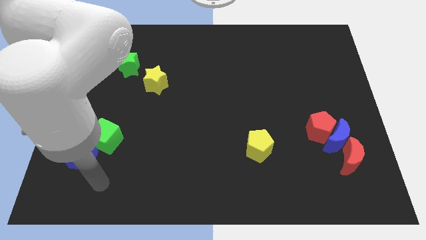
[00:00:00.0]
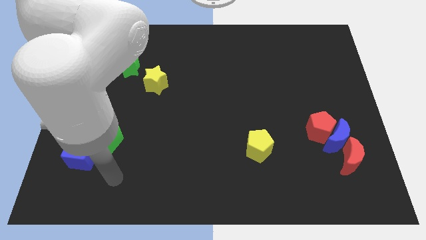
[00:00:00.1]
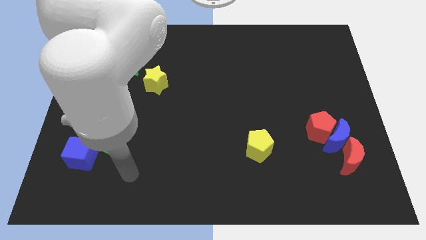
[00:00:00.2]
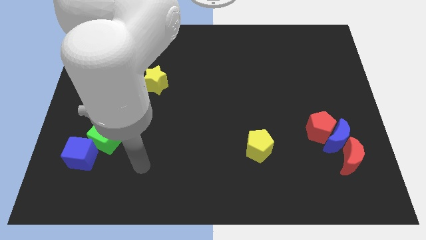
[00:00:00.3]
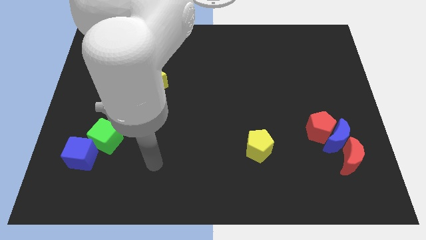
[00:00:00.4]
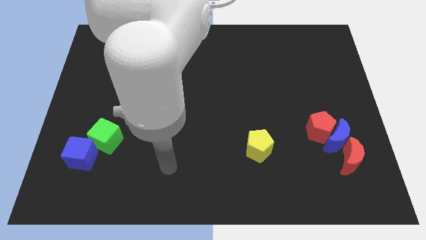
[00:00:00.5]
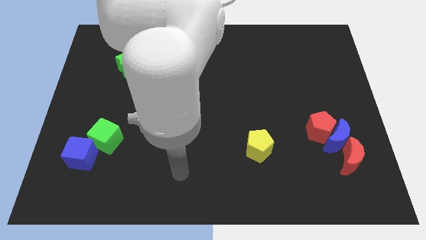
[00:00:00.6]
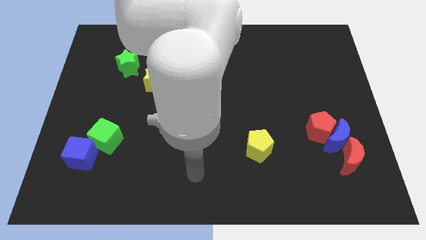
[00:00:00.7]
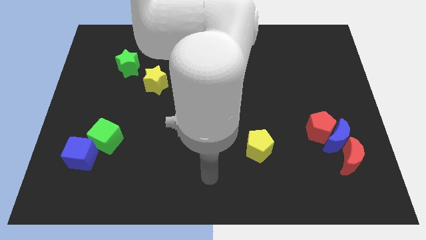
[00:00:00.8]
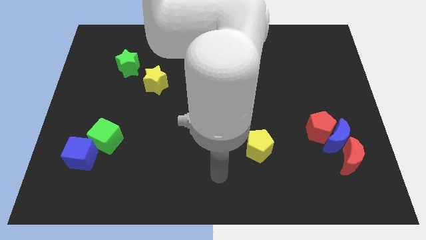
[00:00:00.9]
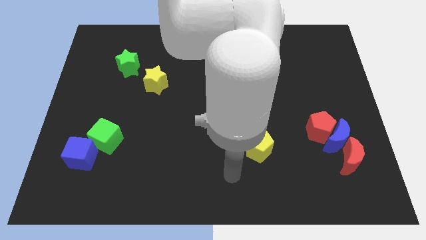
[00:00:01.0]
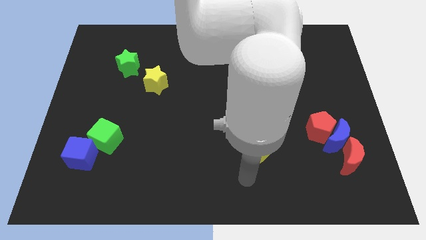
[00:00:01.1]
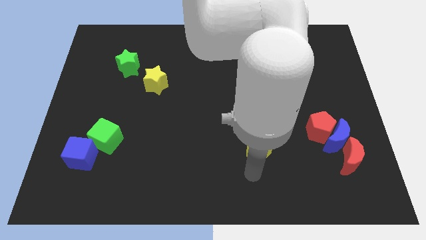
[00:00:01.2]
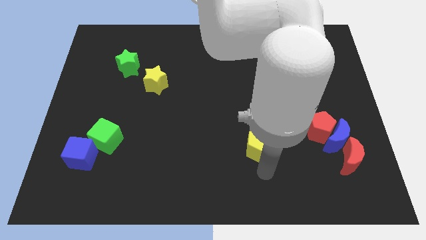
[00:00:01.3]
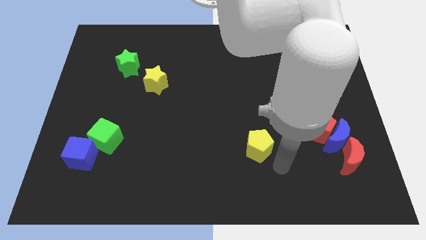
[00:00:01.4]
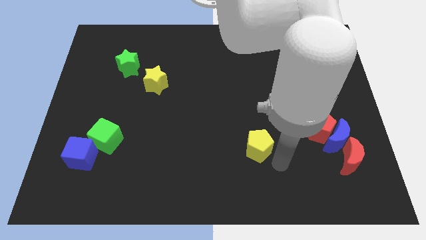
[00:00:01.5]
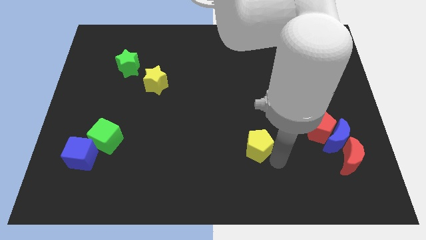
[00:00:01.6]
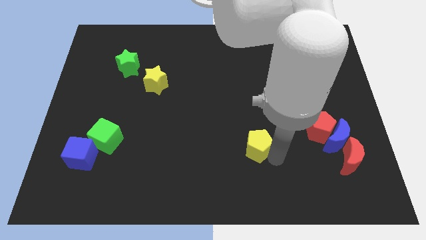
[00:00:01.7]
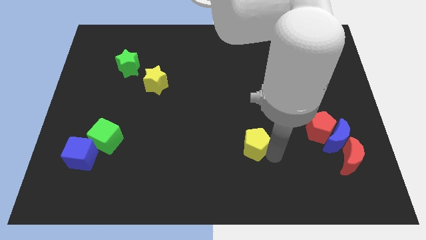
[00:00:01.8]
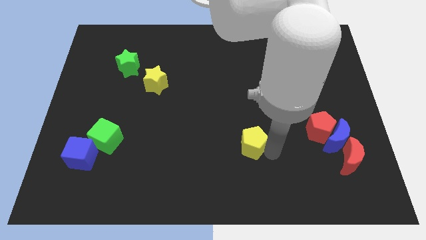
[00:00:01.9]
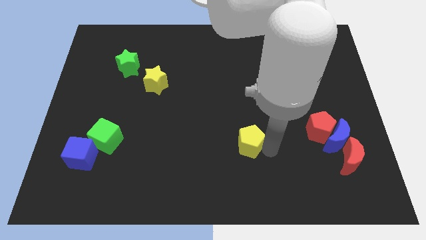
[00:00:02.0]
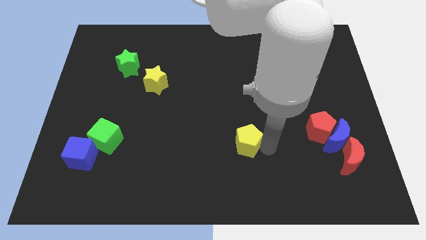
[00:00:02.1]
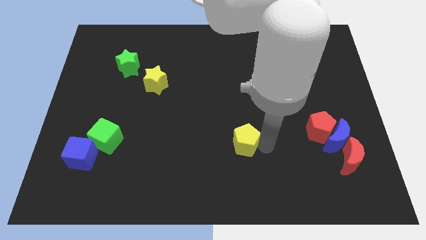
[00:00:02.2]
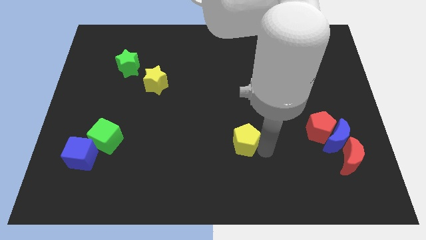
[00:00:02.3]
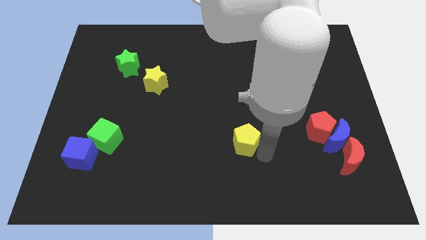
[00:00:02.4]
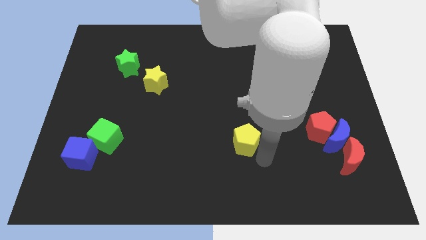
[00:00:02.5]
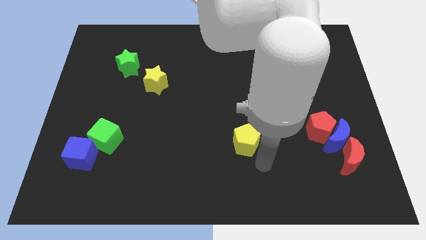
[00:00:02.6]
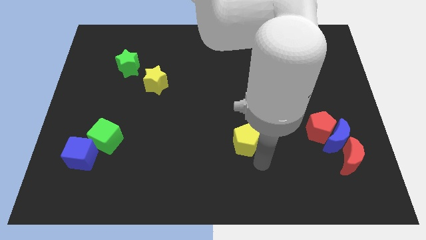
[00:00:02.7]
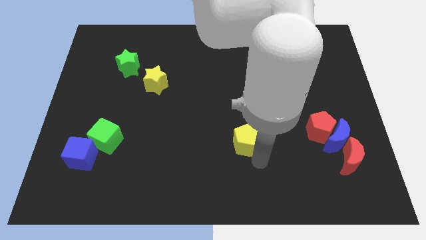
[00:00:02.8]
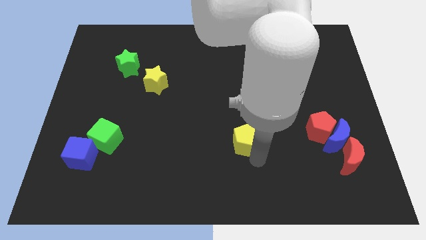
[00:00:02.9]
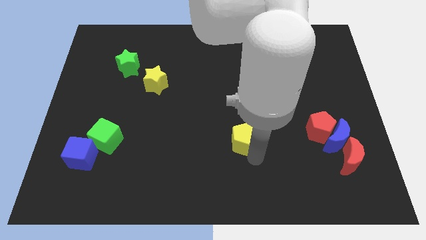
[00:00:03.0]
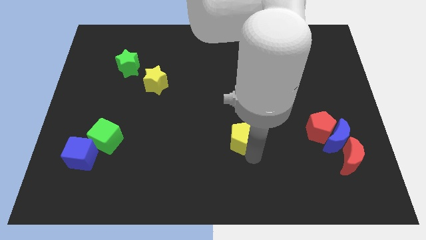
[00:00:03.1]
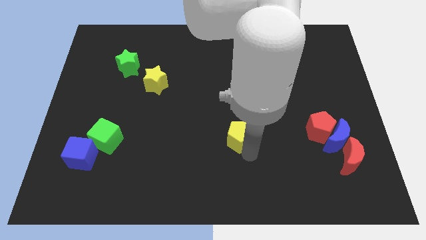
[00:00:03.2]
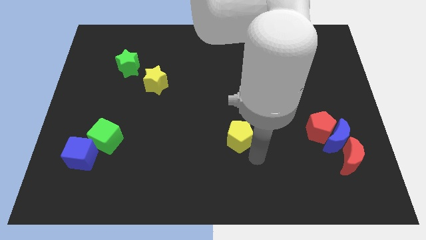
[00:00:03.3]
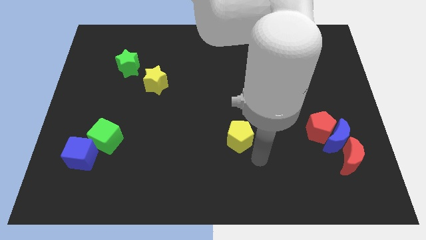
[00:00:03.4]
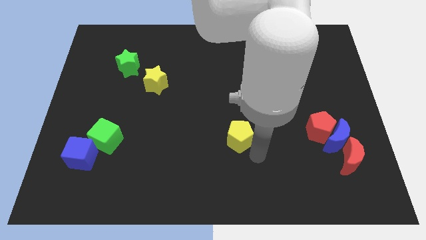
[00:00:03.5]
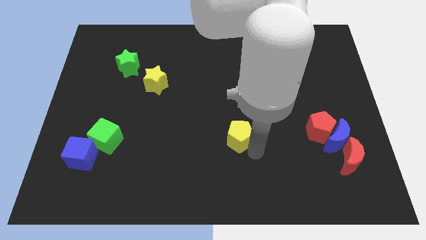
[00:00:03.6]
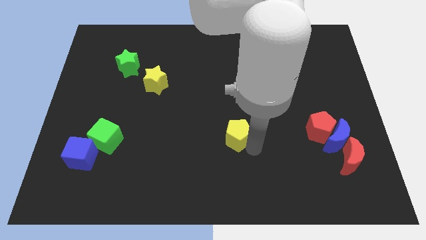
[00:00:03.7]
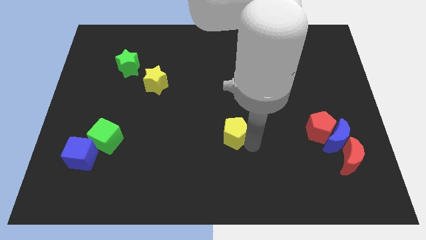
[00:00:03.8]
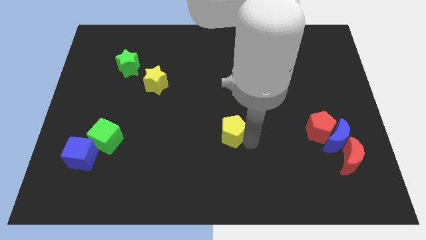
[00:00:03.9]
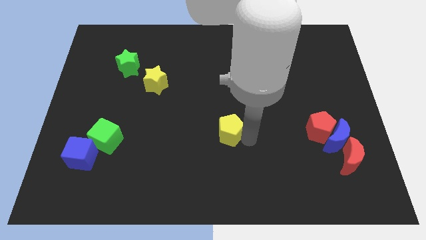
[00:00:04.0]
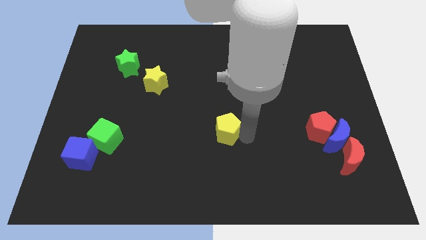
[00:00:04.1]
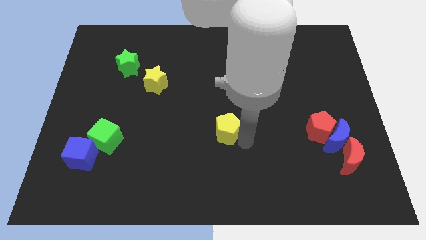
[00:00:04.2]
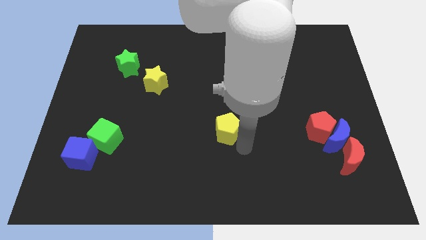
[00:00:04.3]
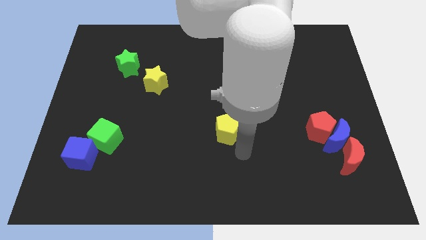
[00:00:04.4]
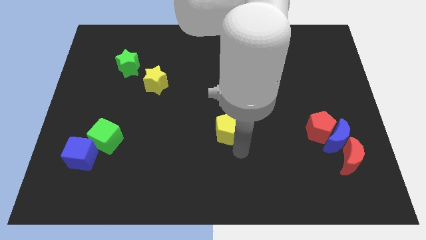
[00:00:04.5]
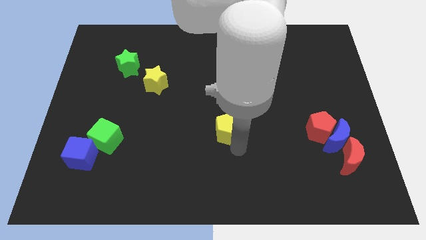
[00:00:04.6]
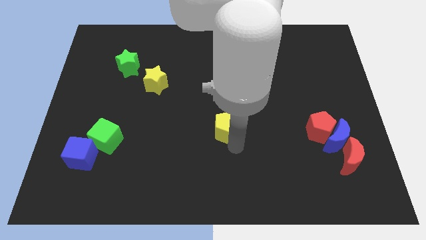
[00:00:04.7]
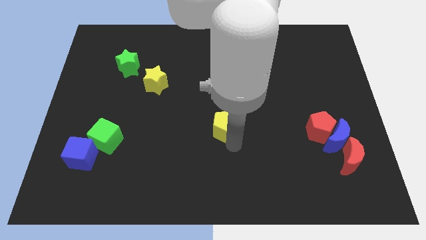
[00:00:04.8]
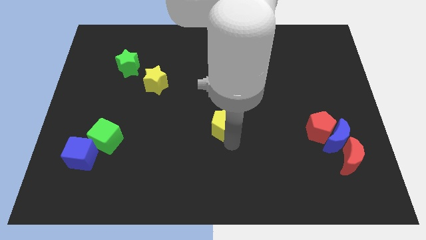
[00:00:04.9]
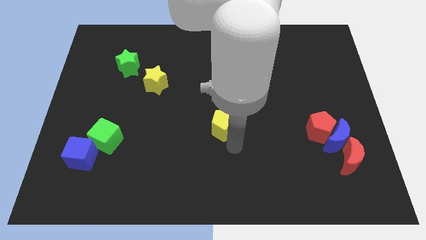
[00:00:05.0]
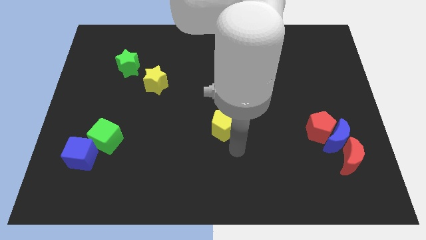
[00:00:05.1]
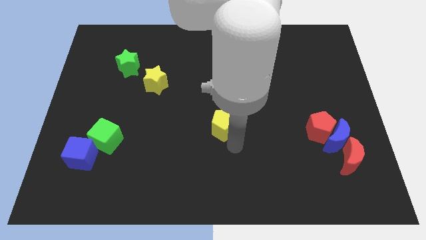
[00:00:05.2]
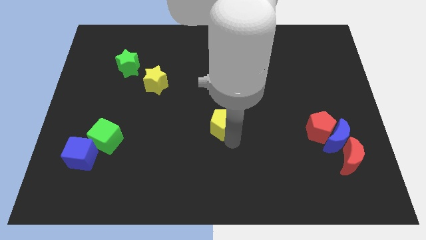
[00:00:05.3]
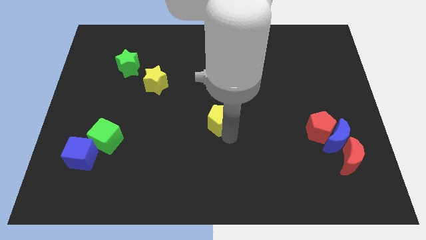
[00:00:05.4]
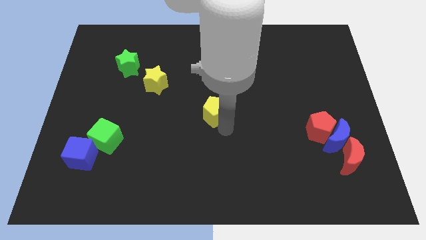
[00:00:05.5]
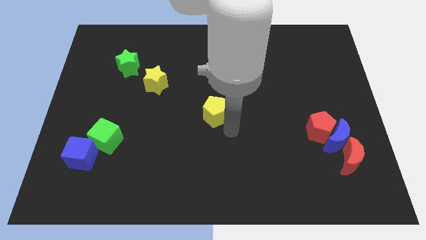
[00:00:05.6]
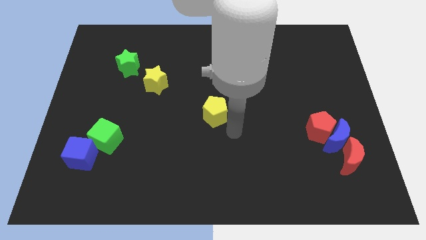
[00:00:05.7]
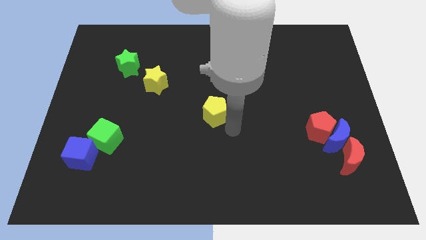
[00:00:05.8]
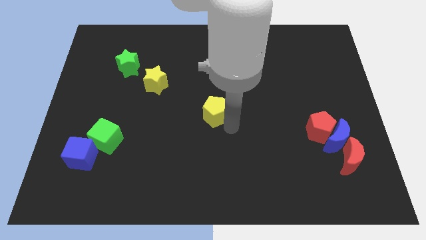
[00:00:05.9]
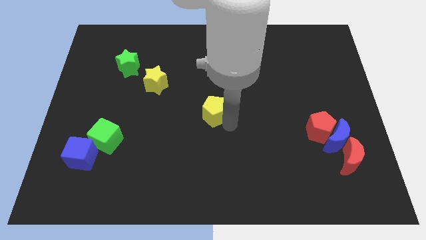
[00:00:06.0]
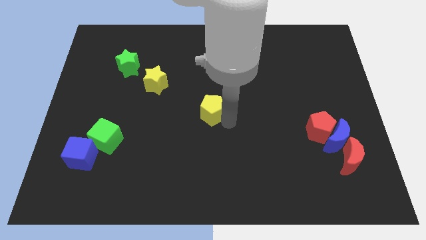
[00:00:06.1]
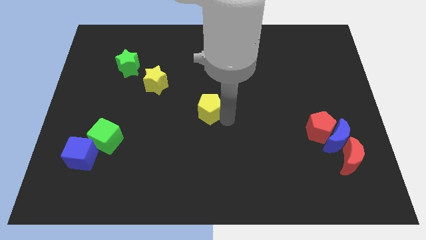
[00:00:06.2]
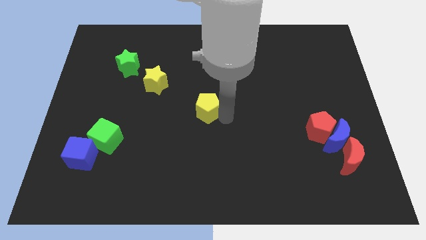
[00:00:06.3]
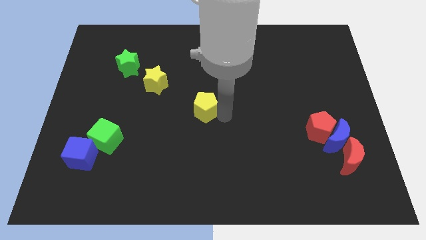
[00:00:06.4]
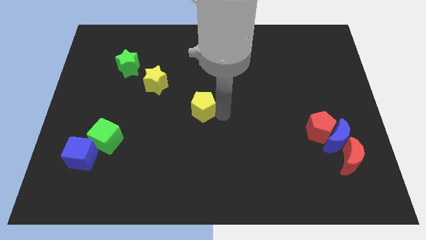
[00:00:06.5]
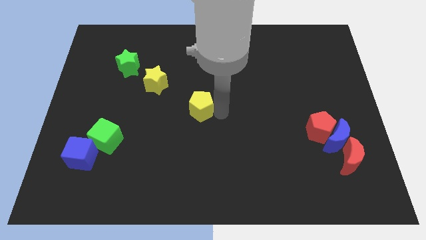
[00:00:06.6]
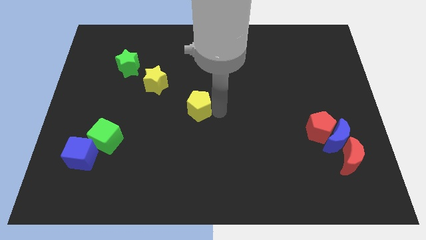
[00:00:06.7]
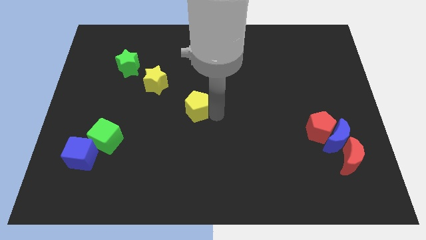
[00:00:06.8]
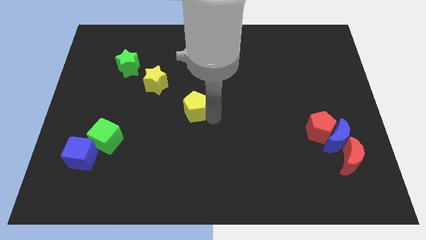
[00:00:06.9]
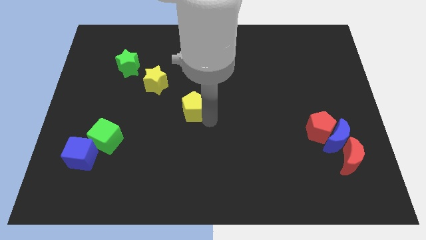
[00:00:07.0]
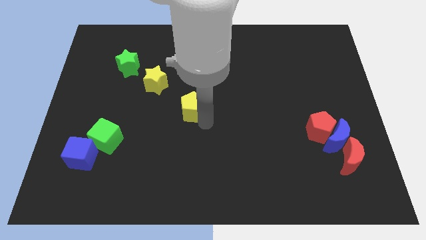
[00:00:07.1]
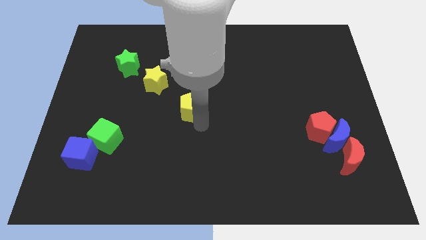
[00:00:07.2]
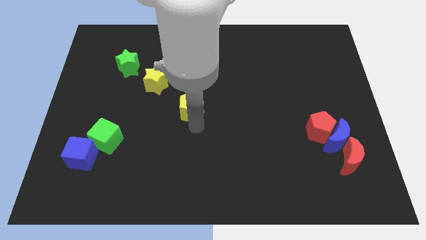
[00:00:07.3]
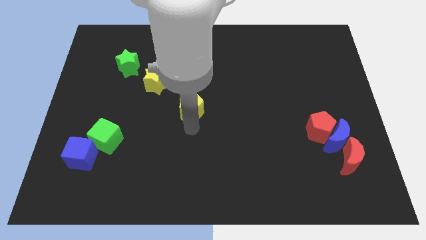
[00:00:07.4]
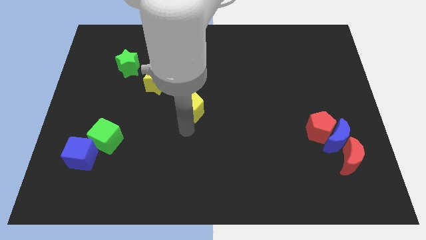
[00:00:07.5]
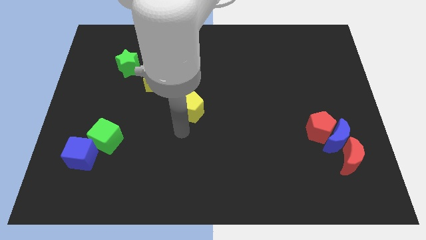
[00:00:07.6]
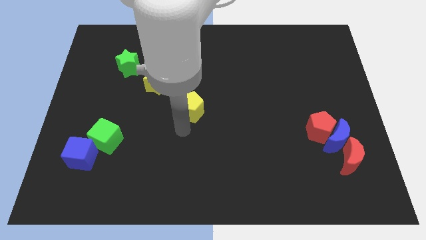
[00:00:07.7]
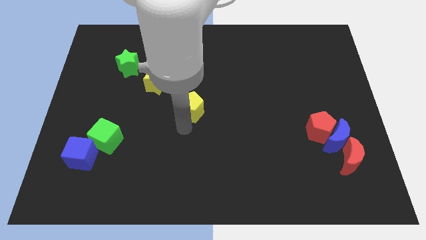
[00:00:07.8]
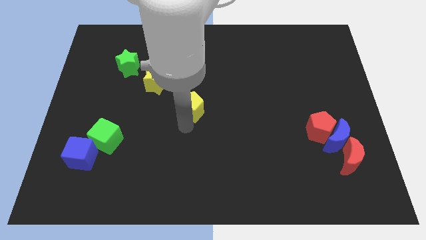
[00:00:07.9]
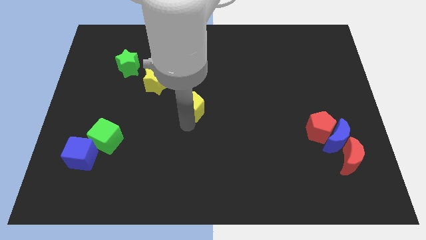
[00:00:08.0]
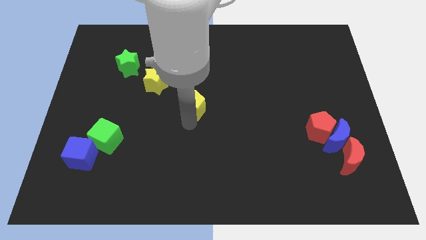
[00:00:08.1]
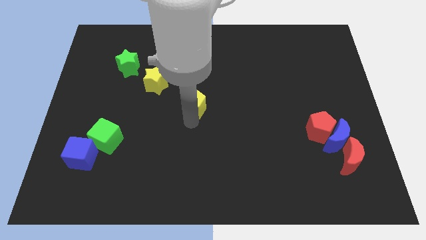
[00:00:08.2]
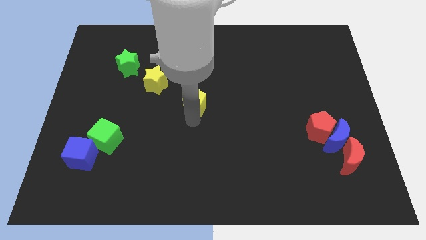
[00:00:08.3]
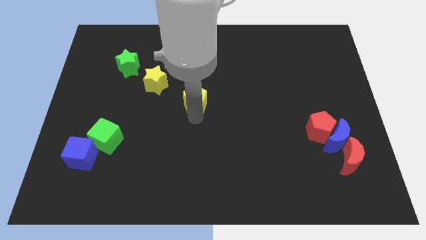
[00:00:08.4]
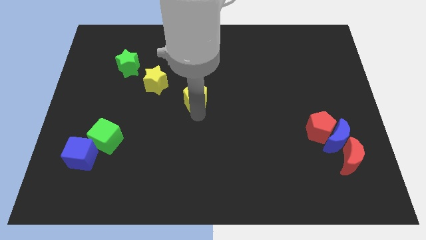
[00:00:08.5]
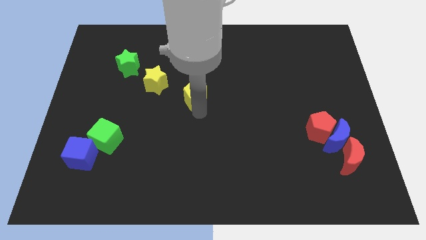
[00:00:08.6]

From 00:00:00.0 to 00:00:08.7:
slide the yellow pentagon upwards and then left
